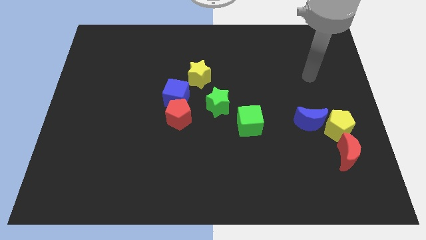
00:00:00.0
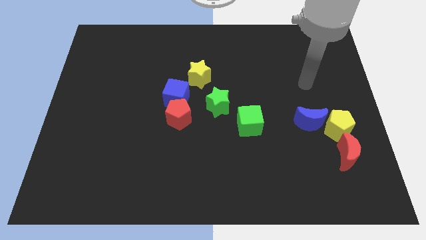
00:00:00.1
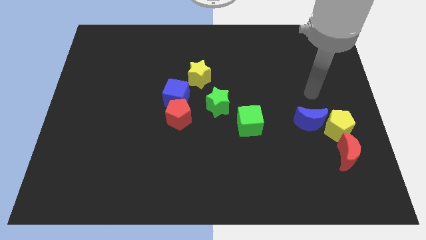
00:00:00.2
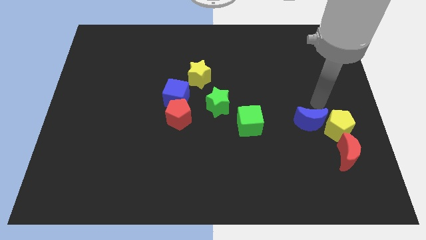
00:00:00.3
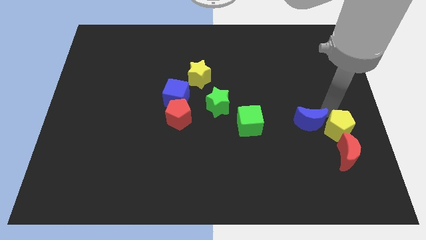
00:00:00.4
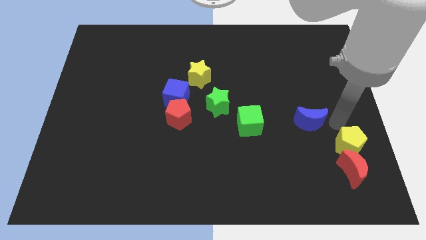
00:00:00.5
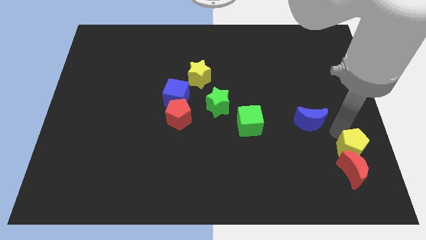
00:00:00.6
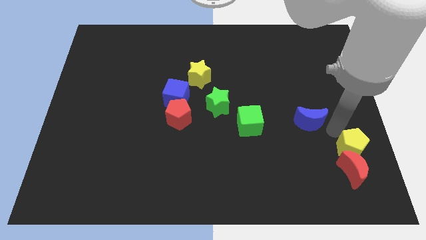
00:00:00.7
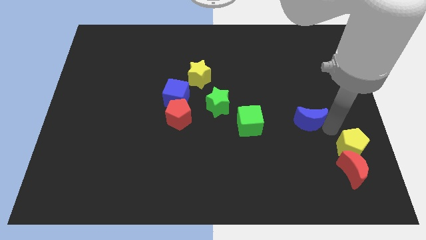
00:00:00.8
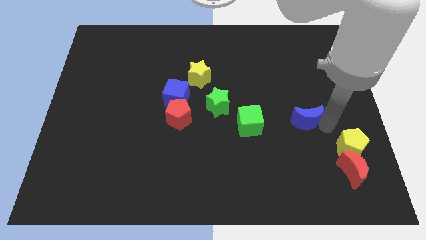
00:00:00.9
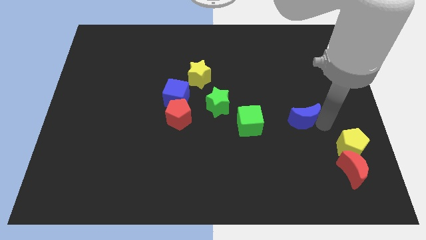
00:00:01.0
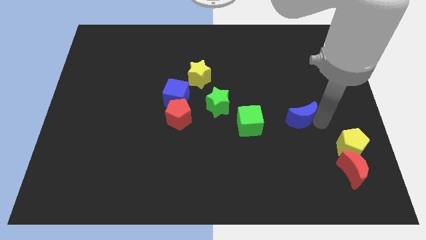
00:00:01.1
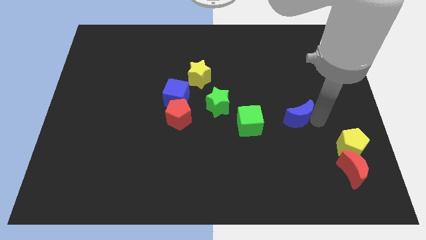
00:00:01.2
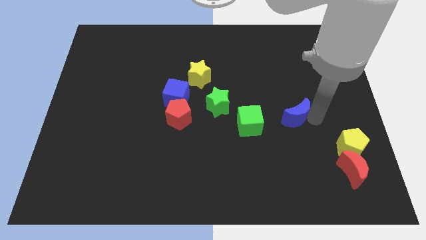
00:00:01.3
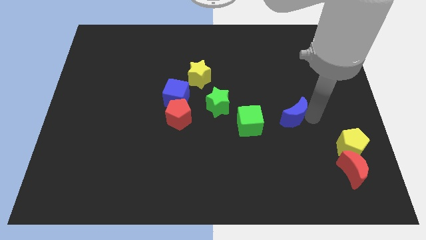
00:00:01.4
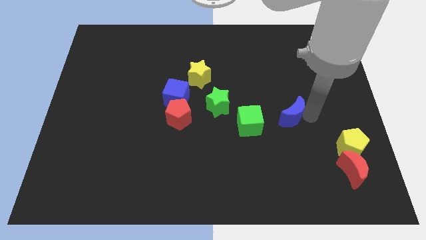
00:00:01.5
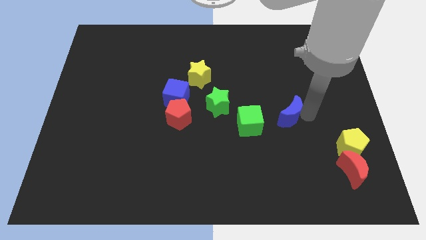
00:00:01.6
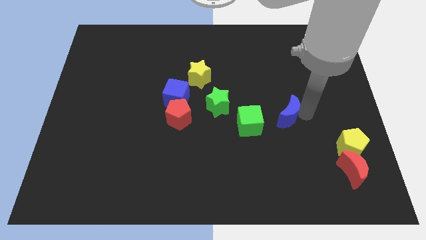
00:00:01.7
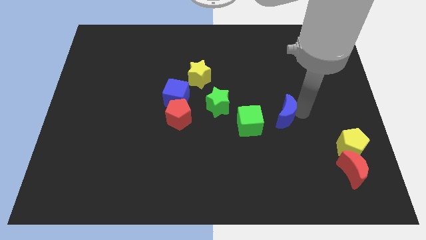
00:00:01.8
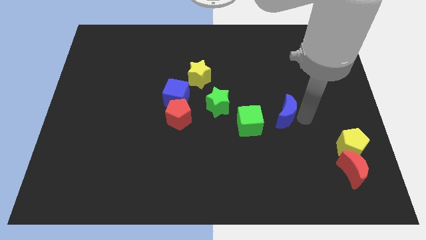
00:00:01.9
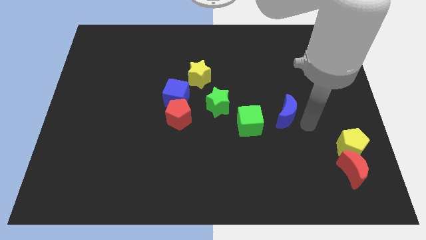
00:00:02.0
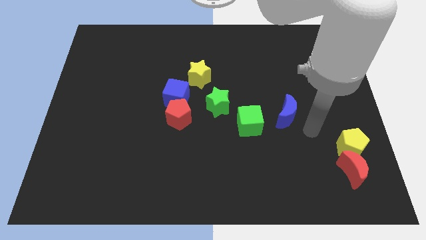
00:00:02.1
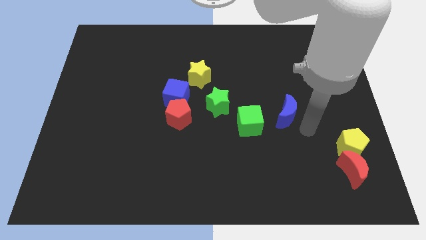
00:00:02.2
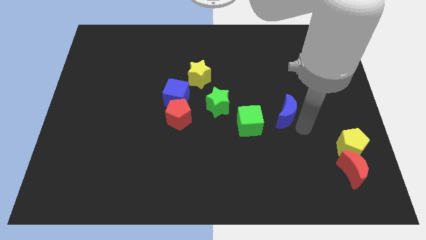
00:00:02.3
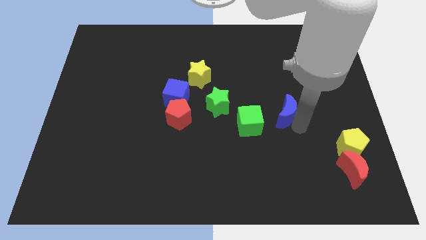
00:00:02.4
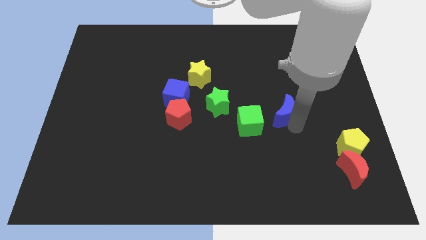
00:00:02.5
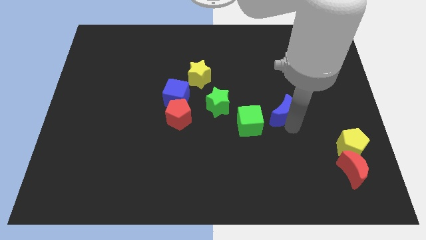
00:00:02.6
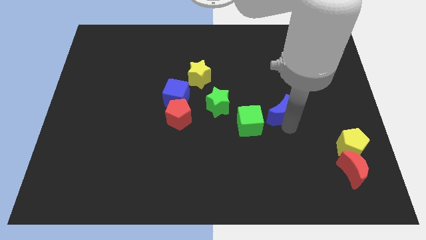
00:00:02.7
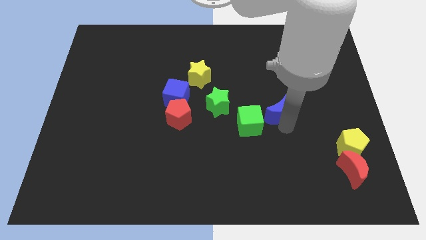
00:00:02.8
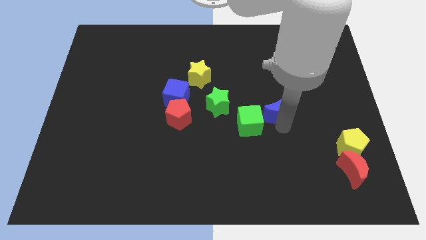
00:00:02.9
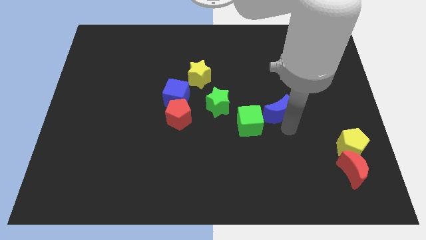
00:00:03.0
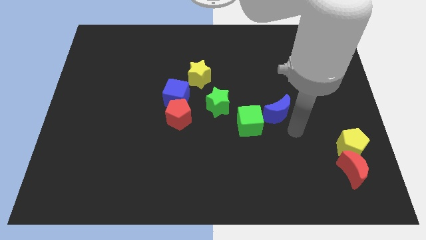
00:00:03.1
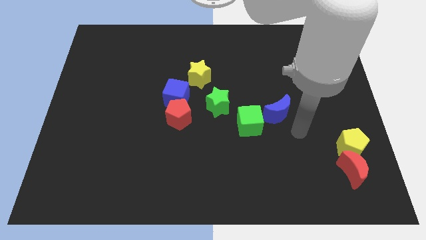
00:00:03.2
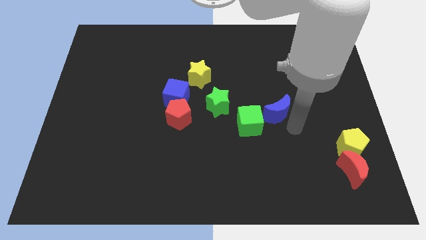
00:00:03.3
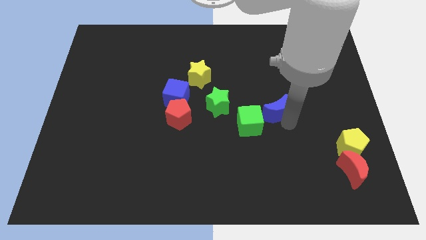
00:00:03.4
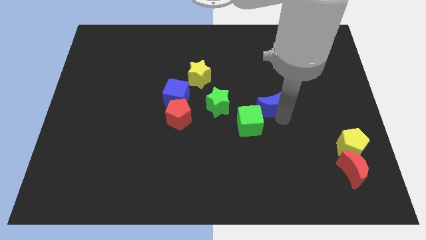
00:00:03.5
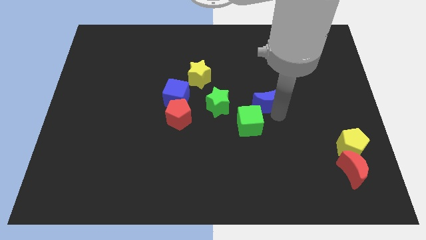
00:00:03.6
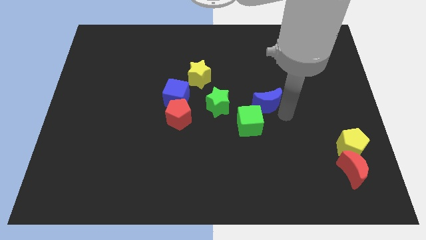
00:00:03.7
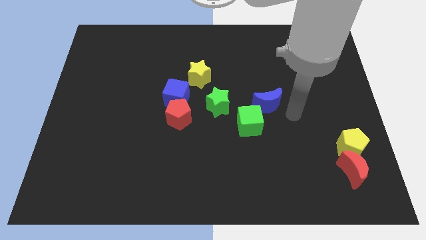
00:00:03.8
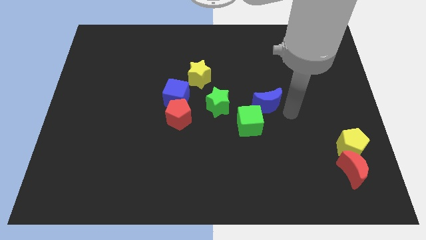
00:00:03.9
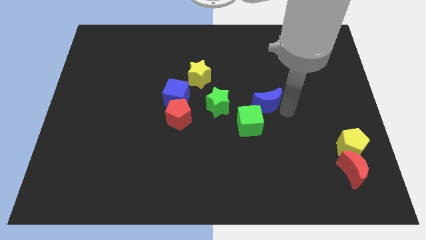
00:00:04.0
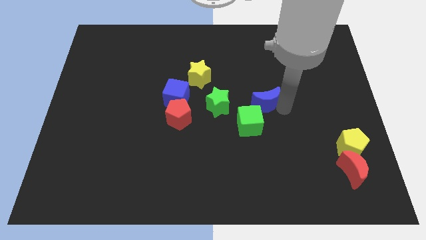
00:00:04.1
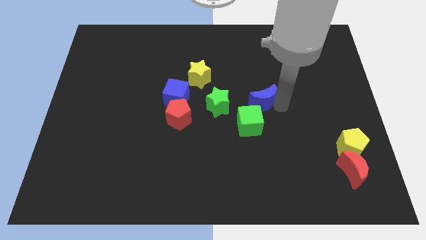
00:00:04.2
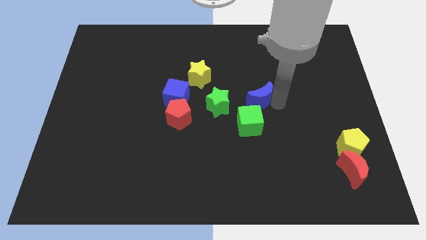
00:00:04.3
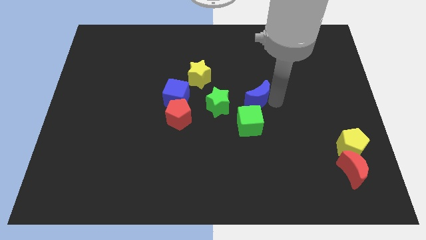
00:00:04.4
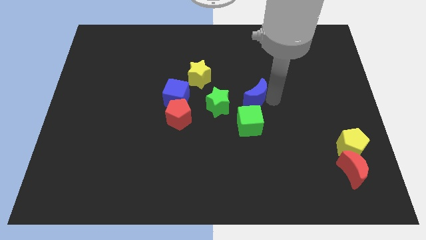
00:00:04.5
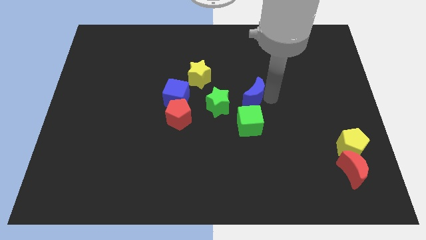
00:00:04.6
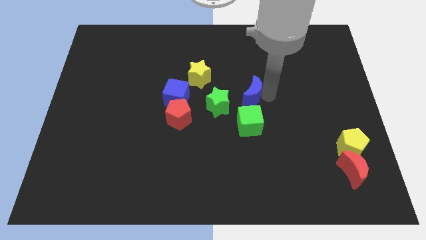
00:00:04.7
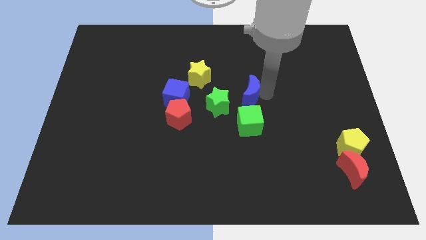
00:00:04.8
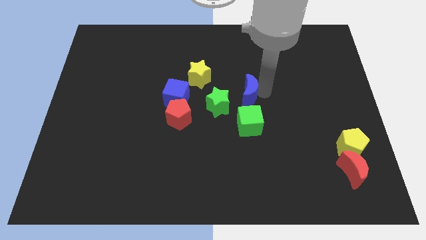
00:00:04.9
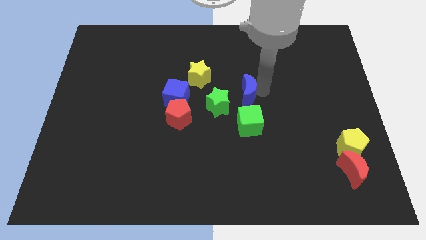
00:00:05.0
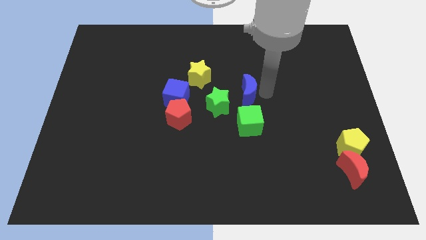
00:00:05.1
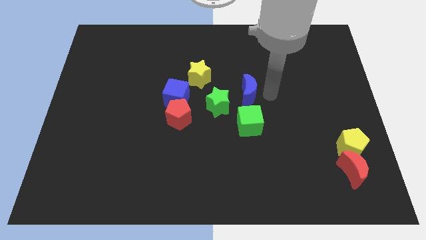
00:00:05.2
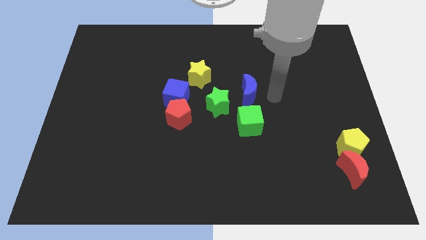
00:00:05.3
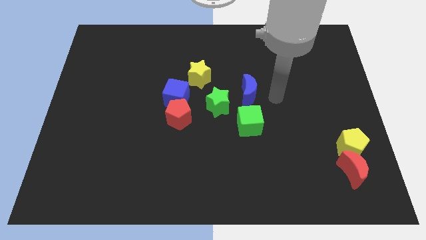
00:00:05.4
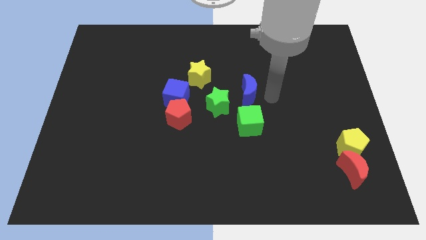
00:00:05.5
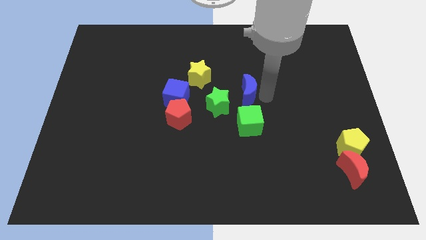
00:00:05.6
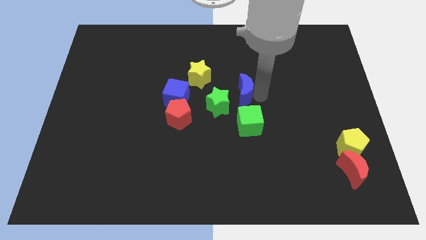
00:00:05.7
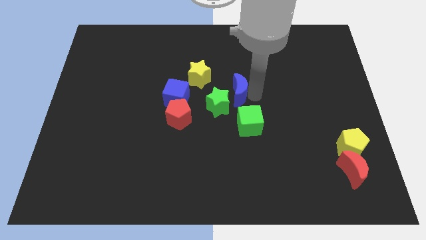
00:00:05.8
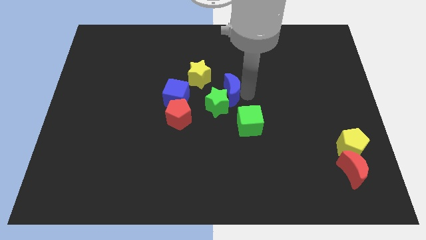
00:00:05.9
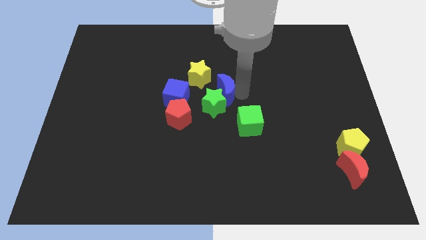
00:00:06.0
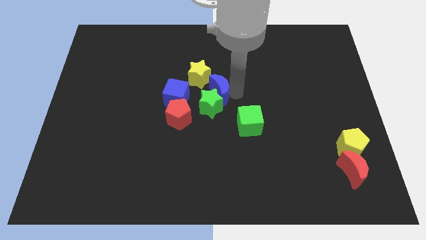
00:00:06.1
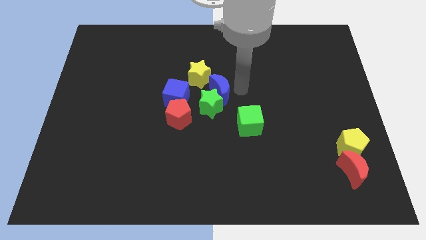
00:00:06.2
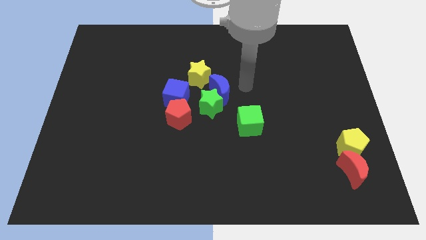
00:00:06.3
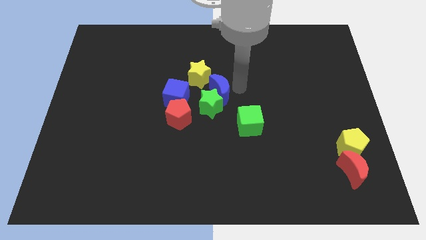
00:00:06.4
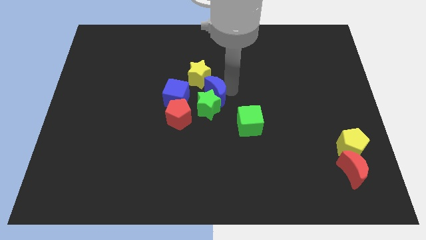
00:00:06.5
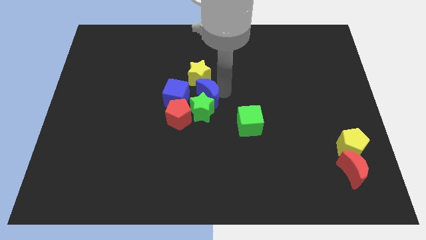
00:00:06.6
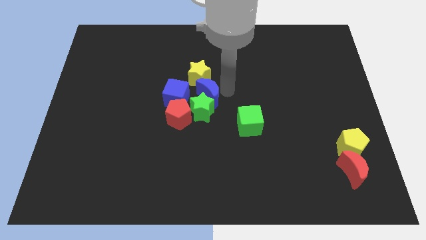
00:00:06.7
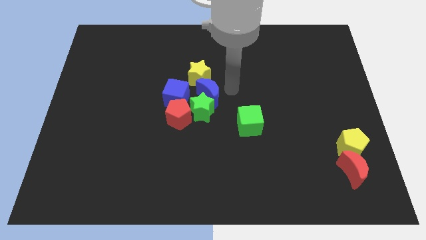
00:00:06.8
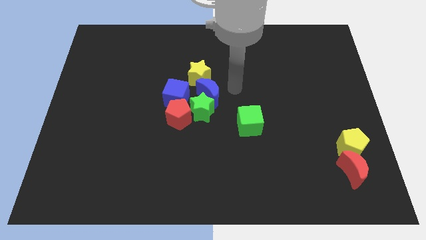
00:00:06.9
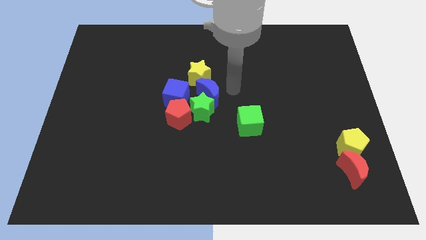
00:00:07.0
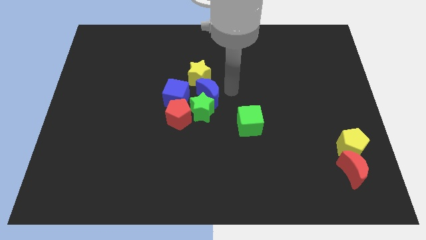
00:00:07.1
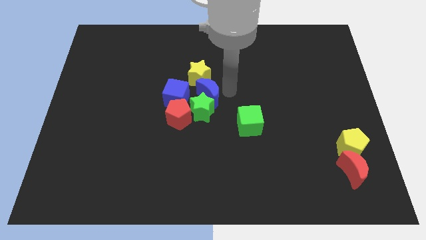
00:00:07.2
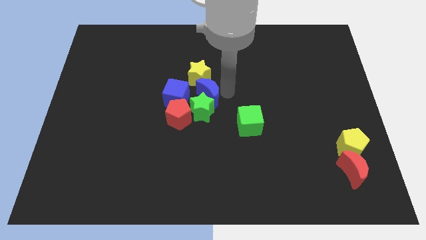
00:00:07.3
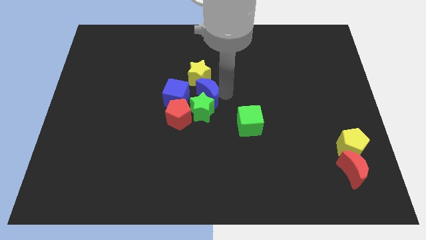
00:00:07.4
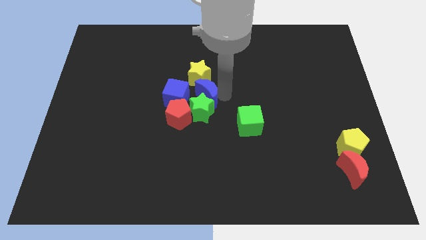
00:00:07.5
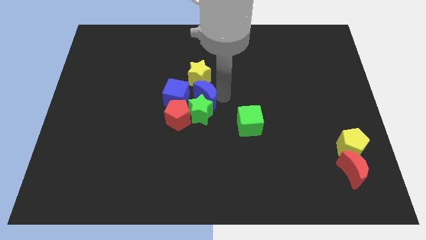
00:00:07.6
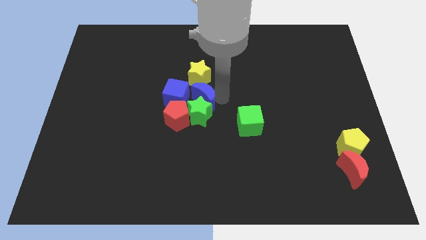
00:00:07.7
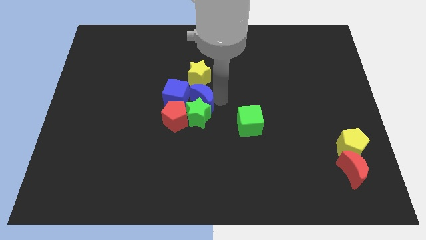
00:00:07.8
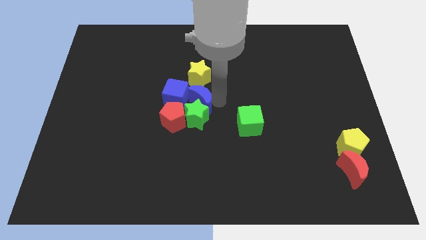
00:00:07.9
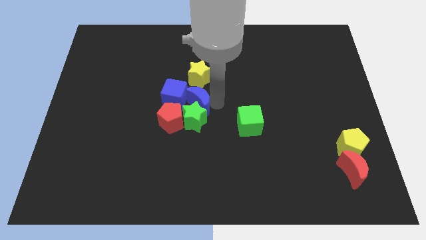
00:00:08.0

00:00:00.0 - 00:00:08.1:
push the blue moon close to the blue cube
